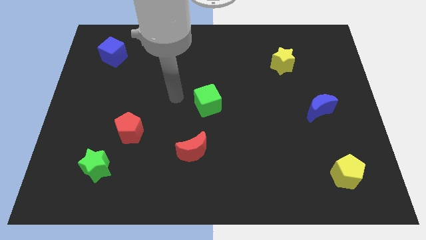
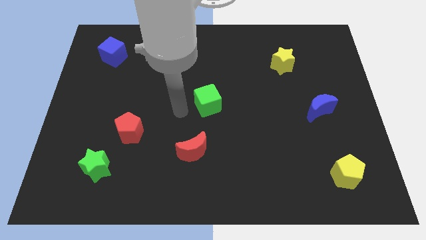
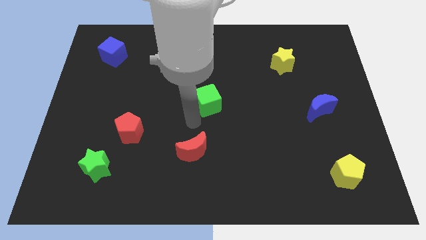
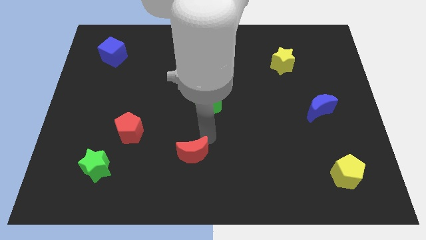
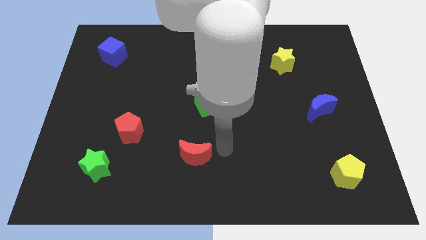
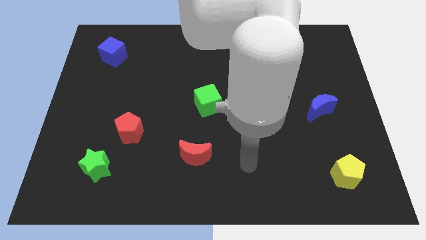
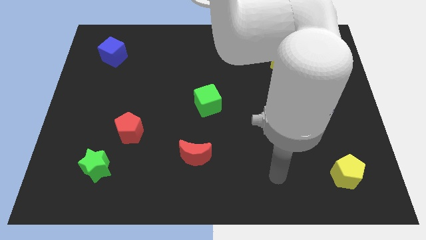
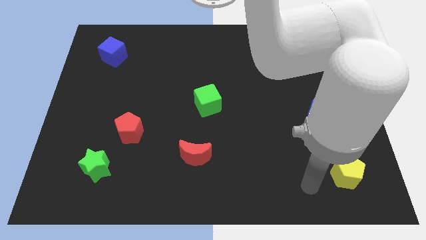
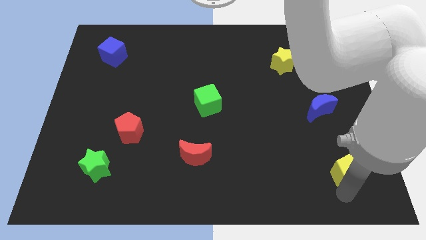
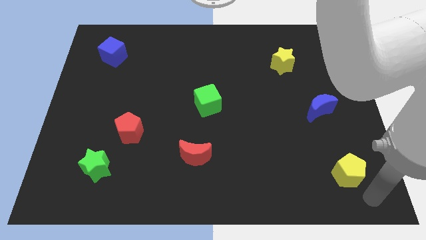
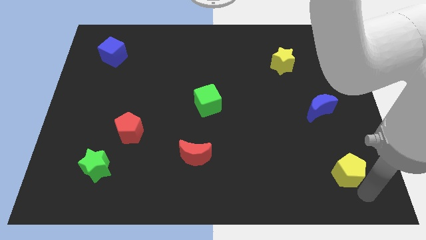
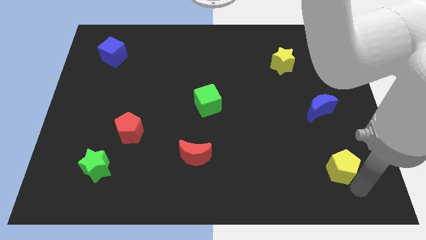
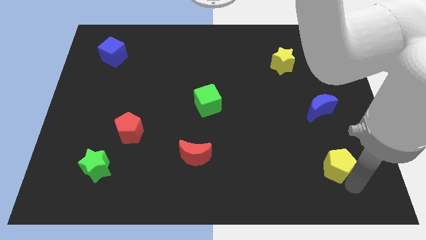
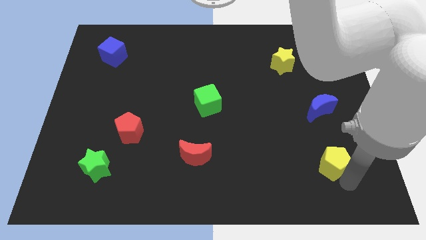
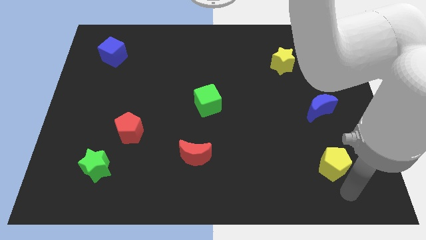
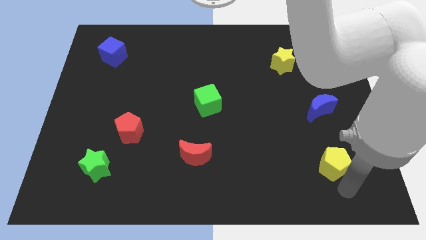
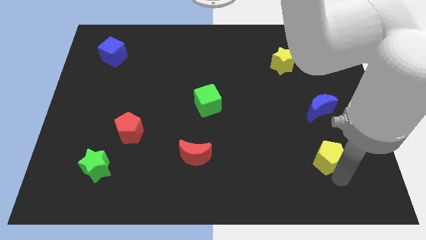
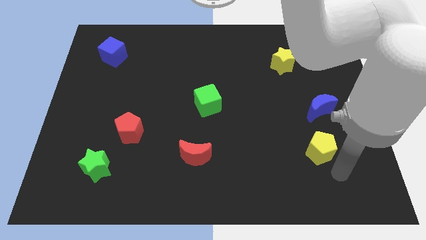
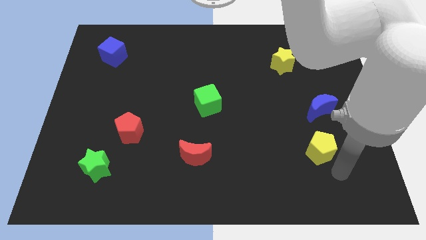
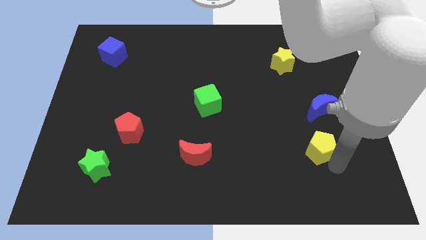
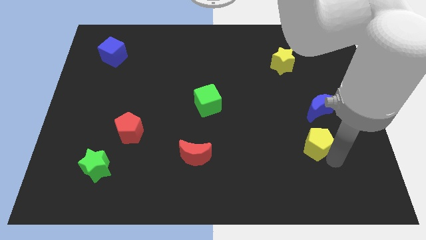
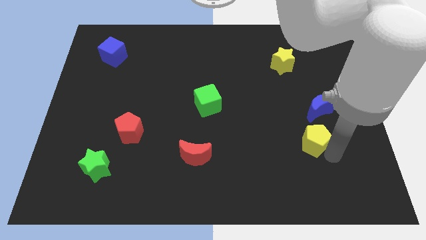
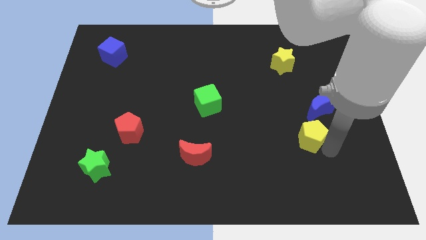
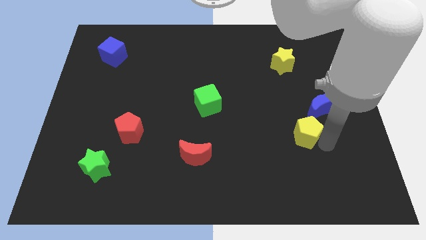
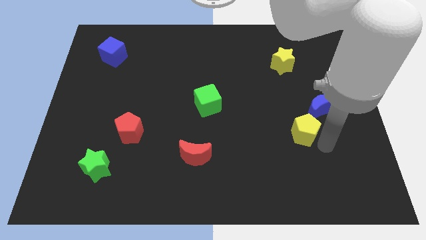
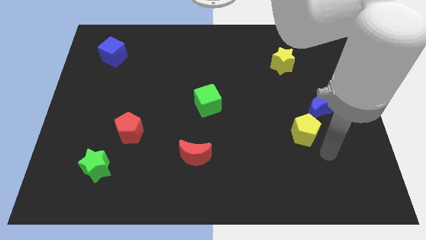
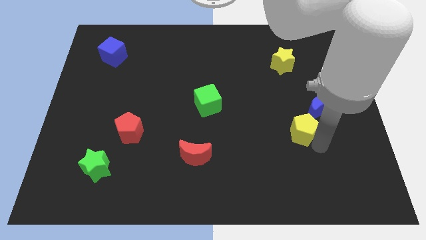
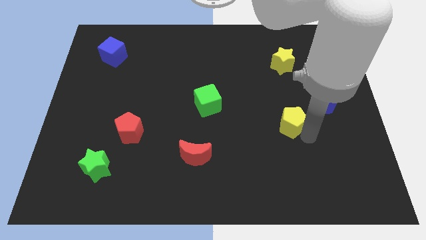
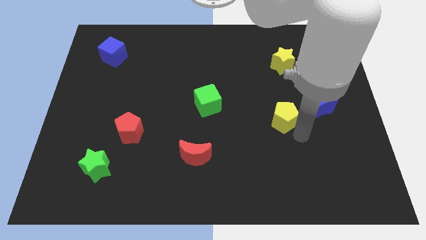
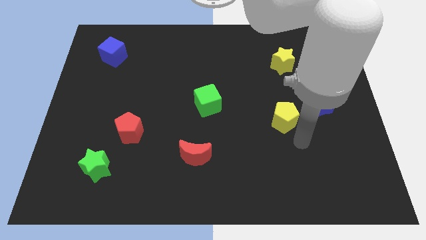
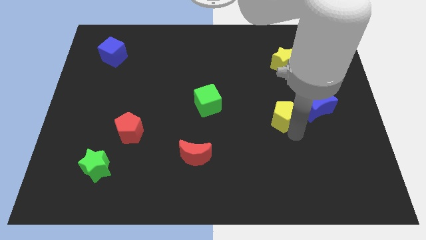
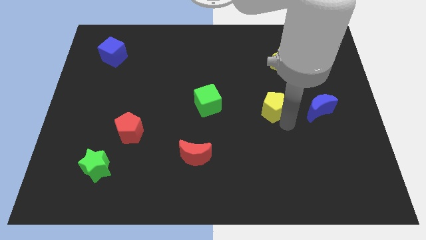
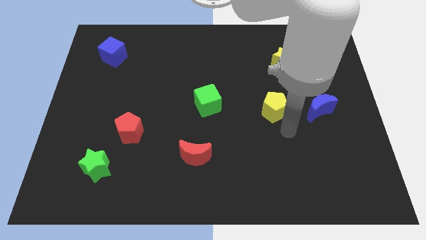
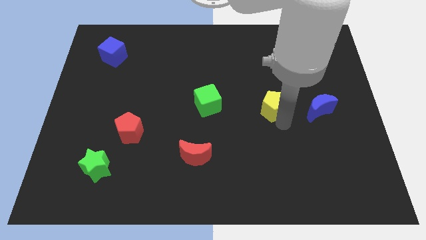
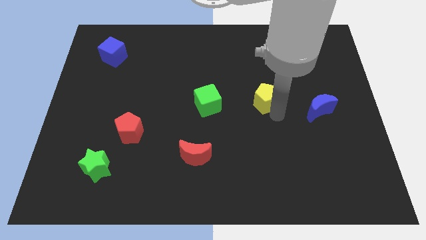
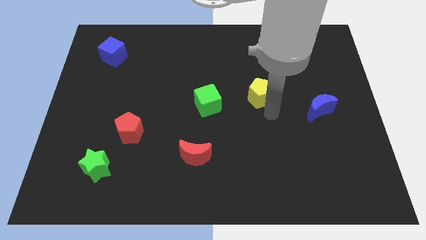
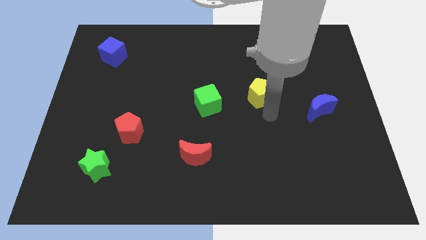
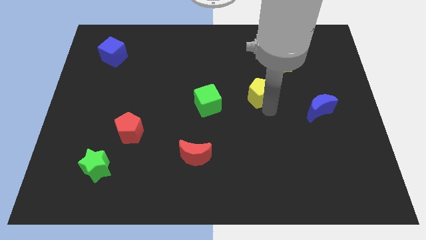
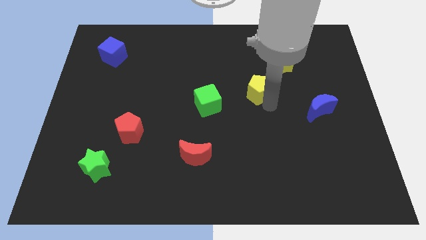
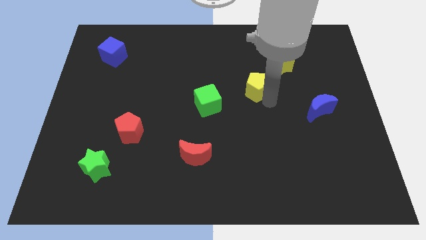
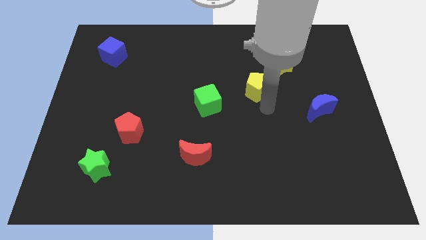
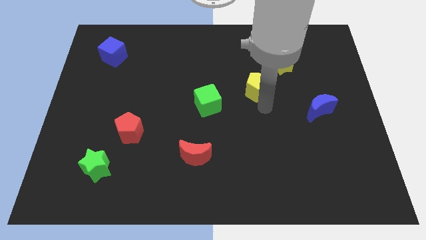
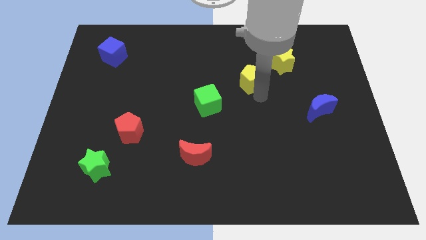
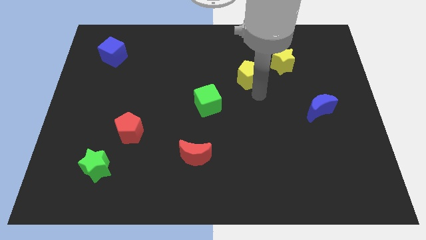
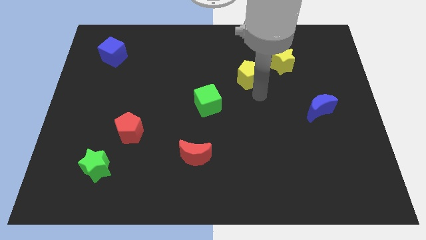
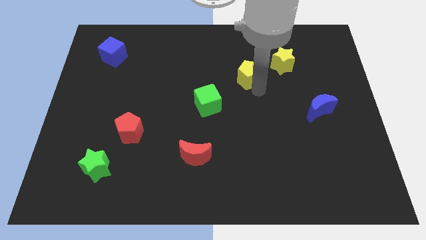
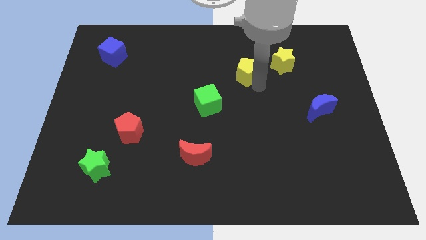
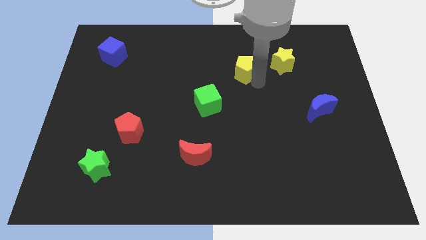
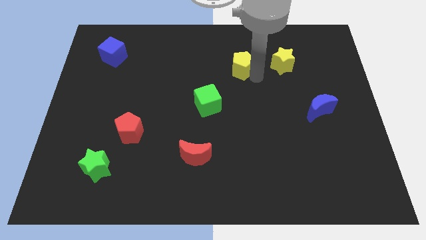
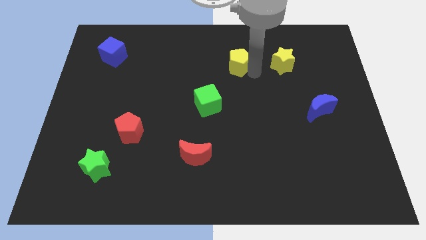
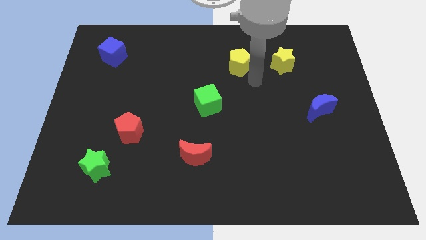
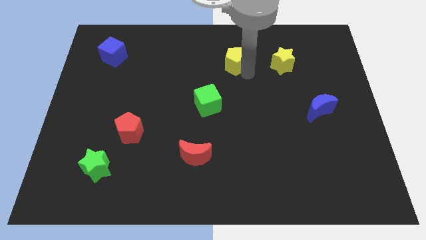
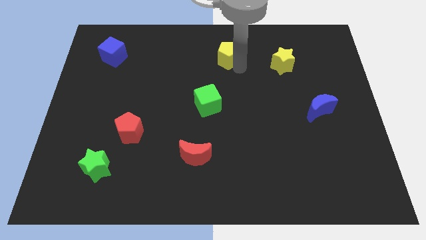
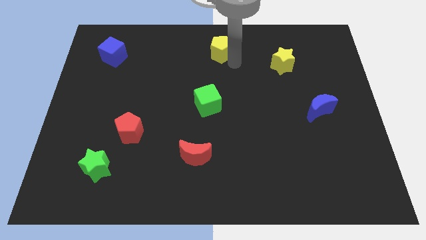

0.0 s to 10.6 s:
move the yellow pentagon to the towards your base

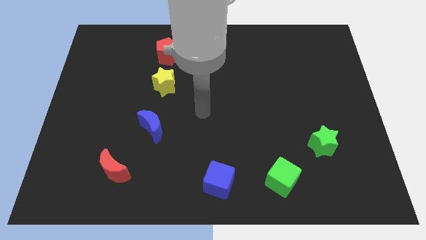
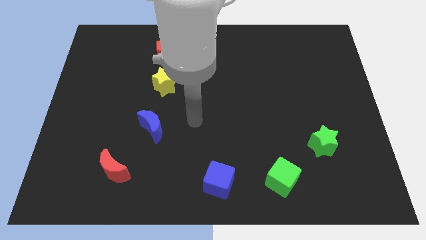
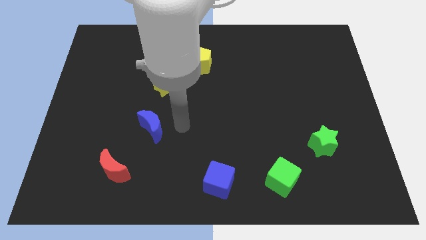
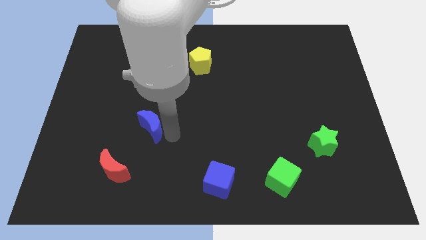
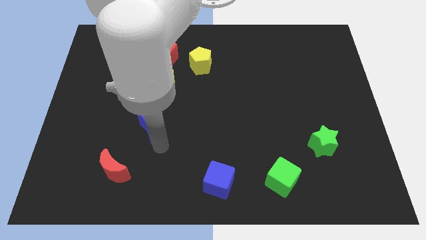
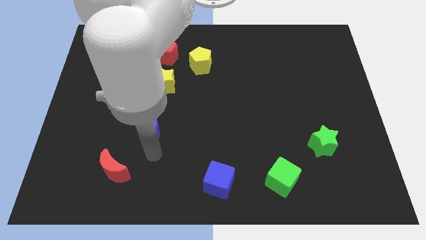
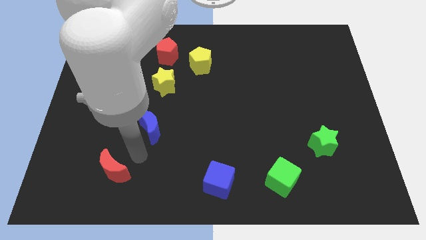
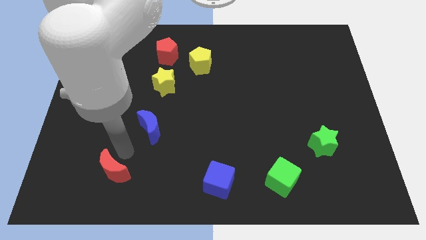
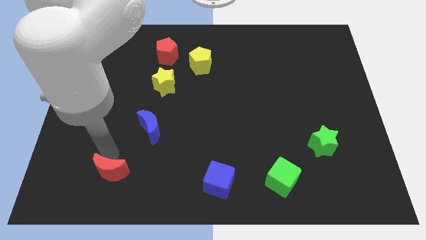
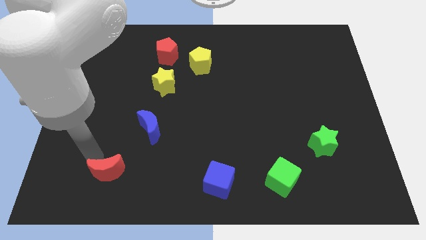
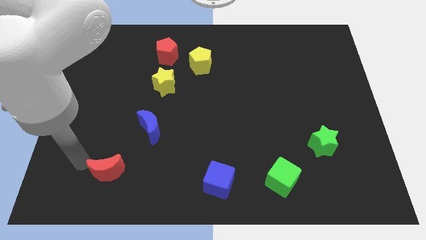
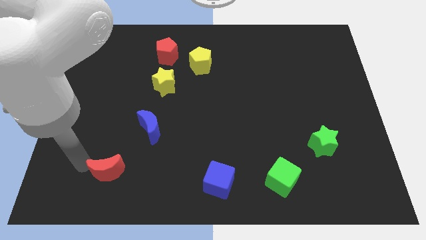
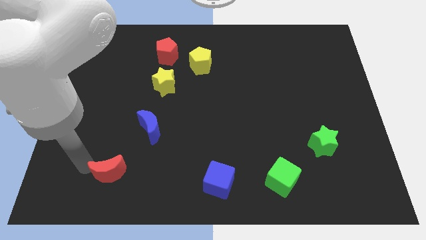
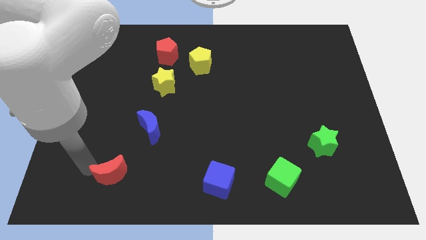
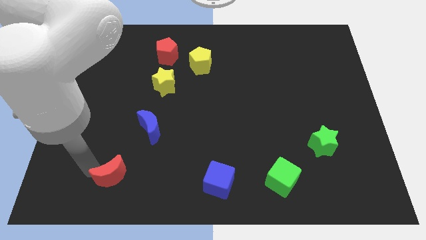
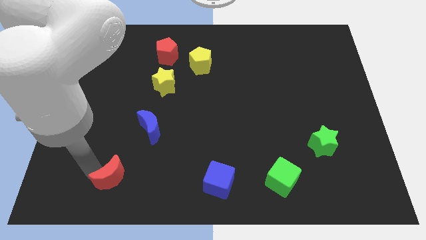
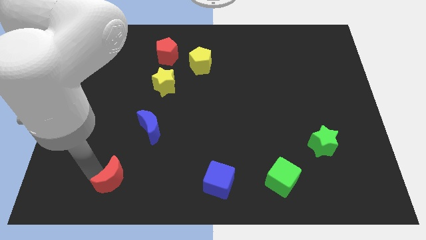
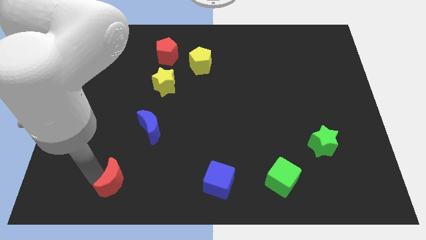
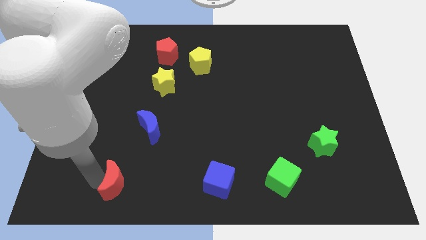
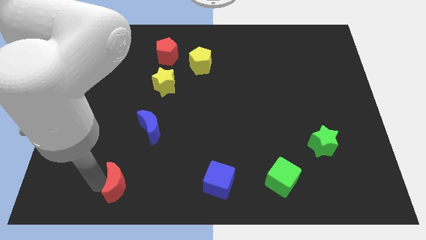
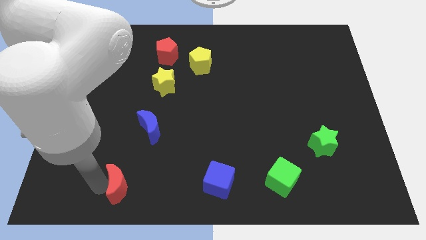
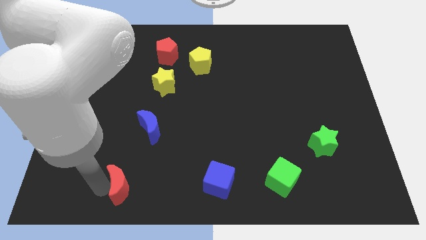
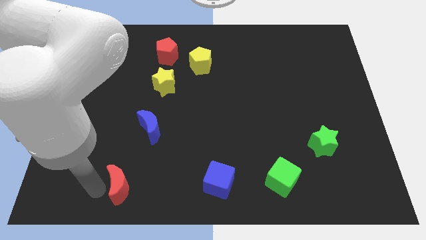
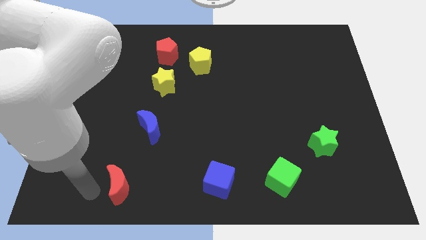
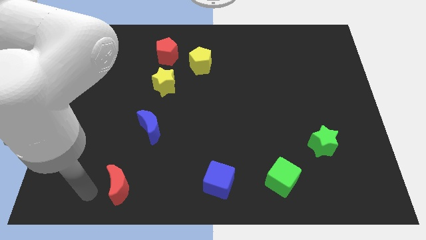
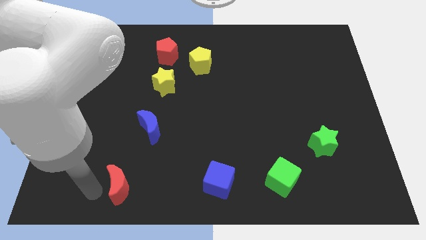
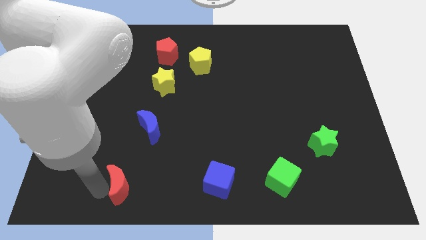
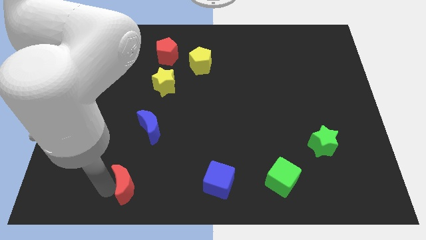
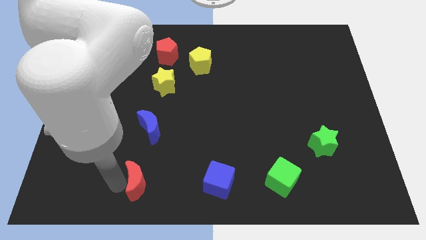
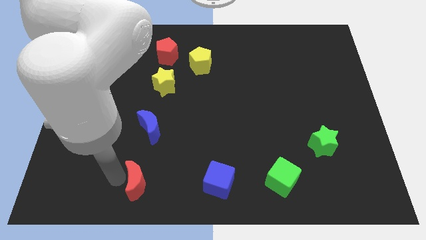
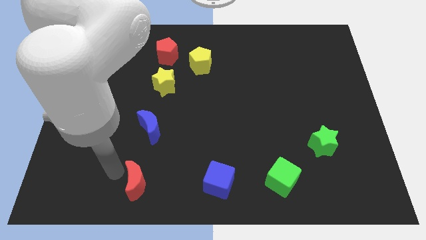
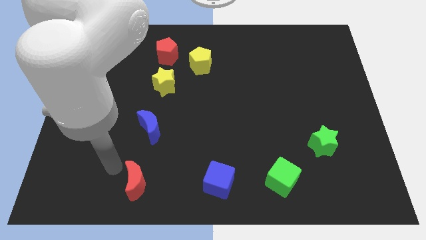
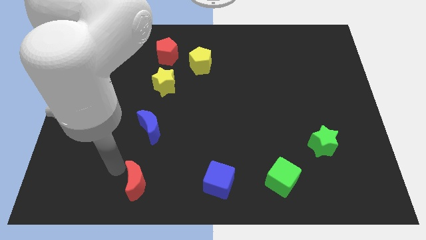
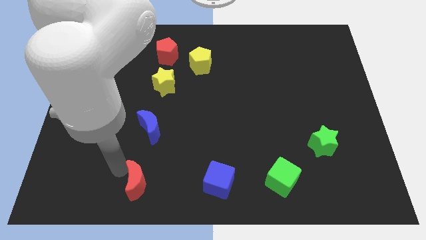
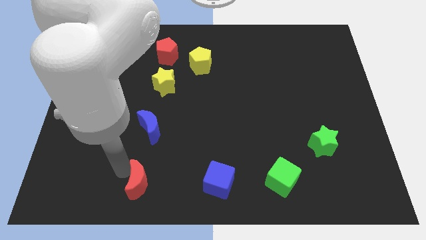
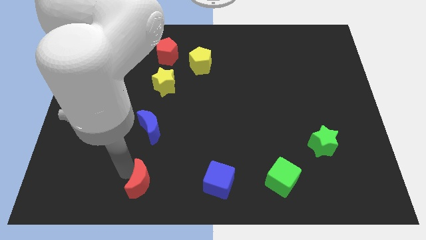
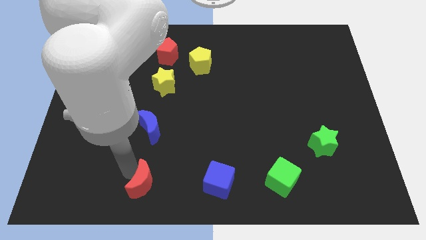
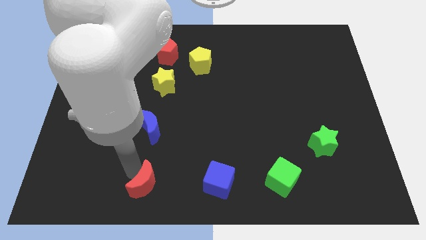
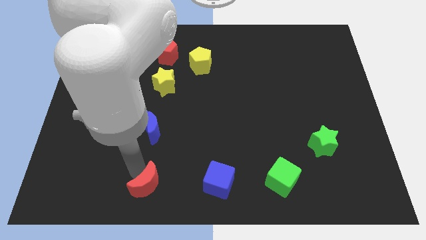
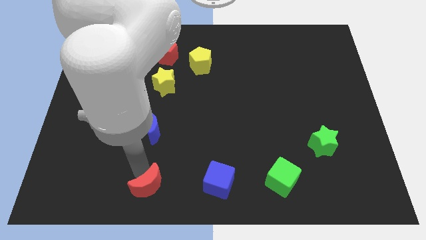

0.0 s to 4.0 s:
push the red moon to the bottom side
